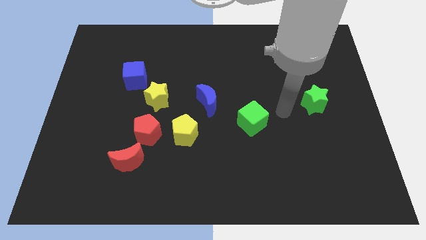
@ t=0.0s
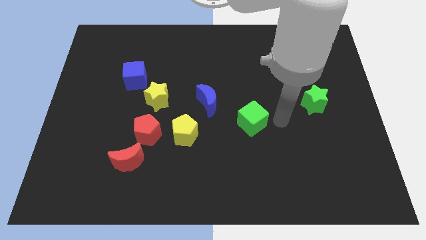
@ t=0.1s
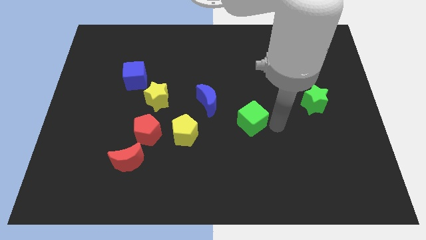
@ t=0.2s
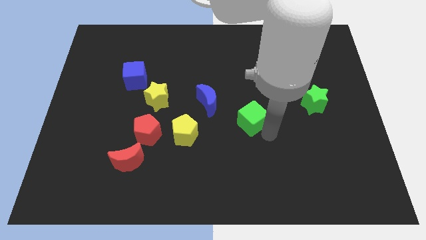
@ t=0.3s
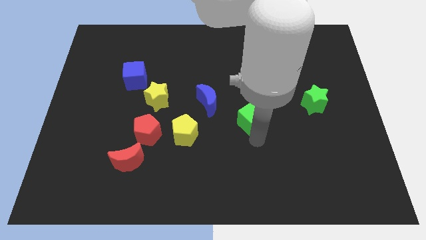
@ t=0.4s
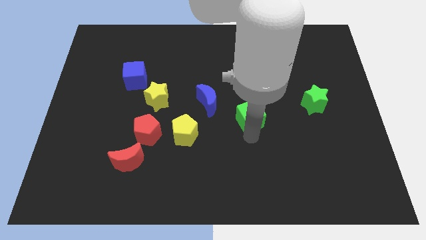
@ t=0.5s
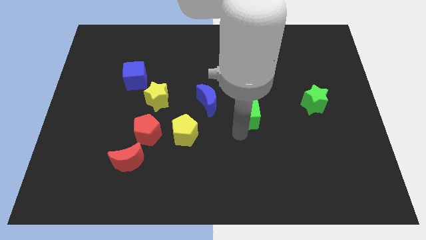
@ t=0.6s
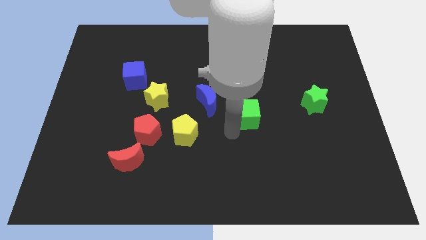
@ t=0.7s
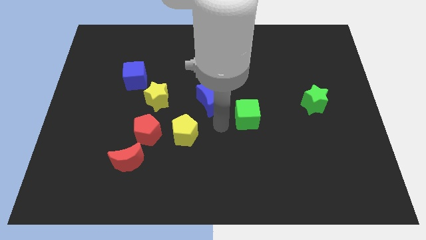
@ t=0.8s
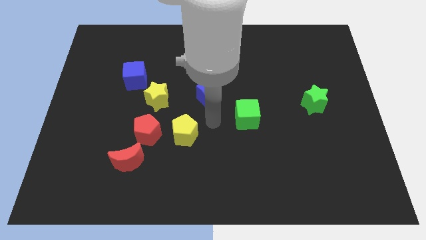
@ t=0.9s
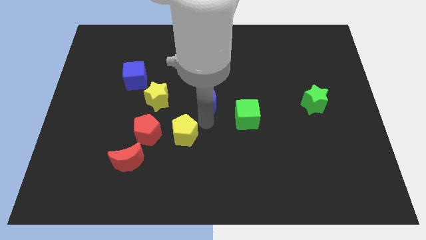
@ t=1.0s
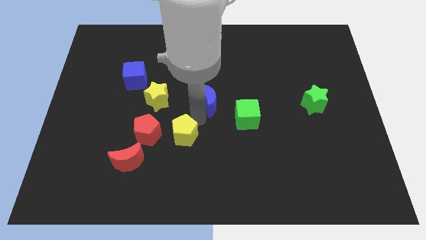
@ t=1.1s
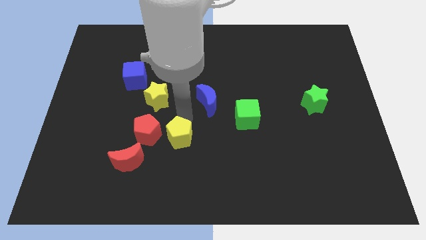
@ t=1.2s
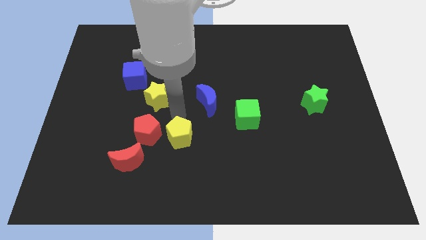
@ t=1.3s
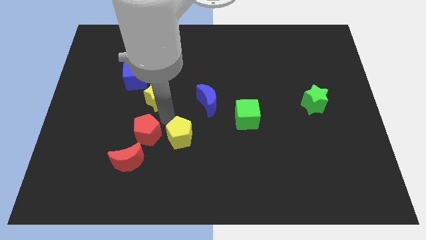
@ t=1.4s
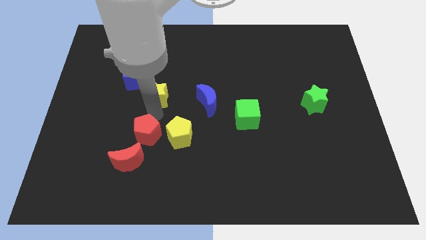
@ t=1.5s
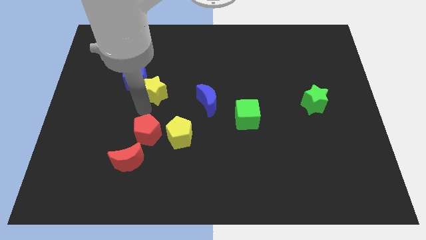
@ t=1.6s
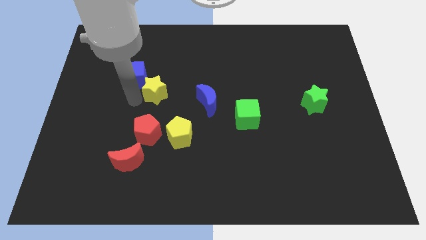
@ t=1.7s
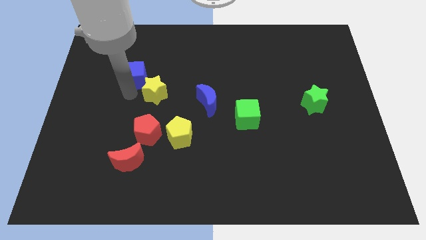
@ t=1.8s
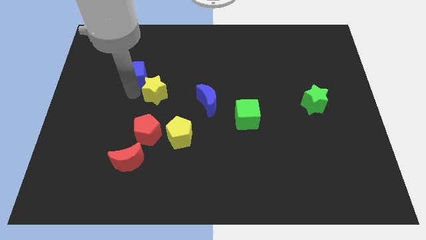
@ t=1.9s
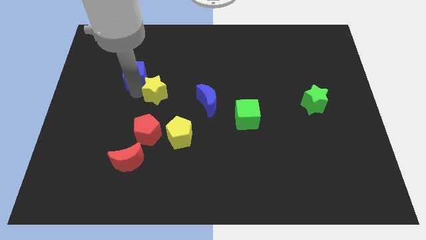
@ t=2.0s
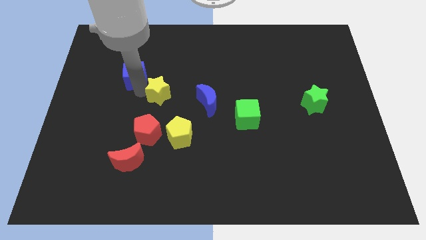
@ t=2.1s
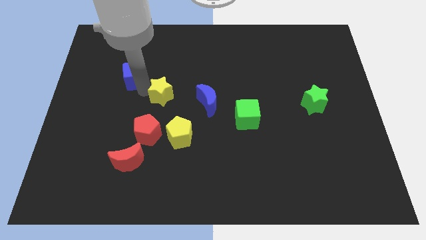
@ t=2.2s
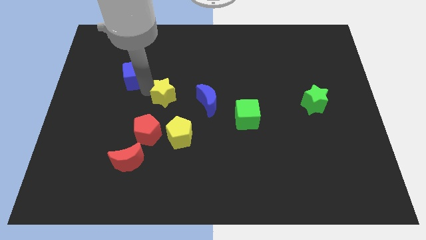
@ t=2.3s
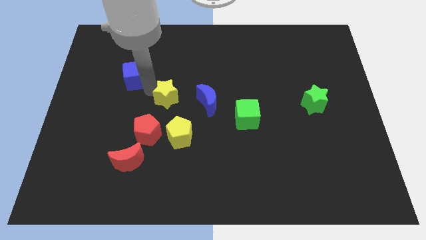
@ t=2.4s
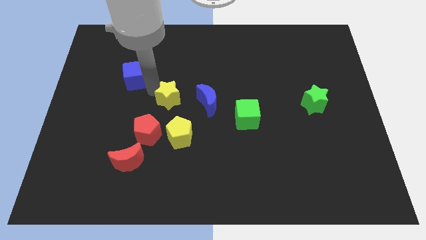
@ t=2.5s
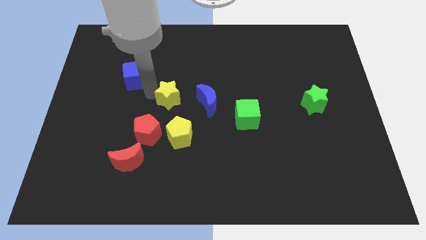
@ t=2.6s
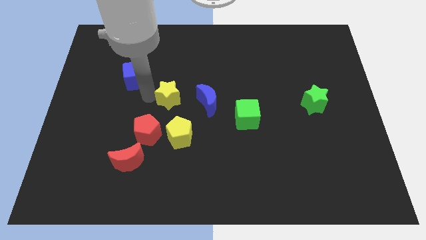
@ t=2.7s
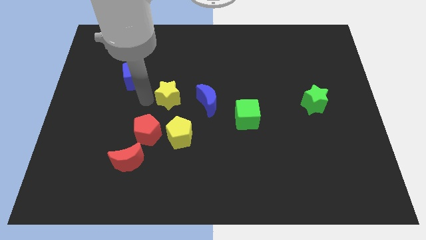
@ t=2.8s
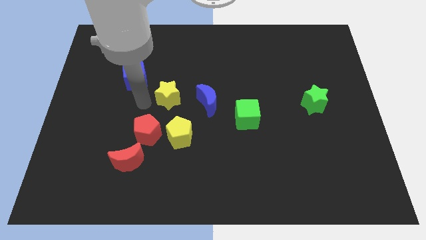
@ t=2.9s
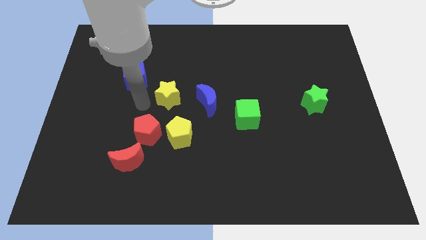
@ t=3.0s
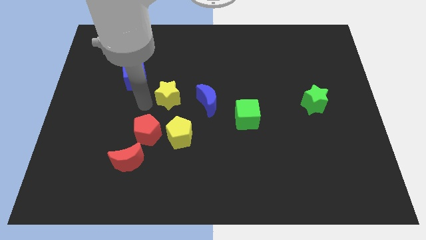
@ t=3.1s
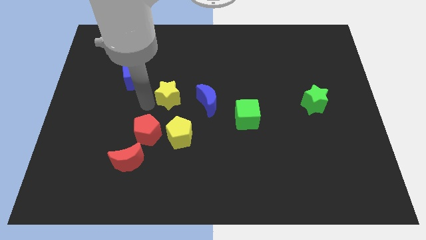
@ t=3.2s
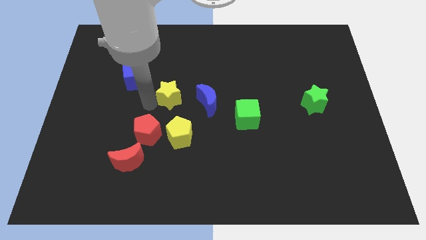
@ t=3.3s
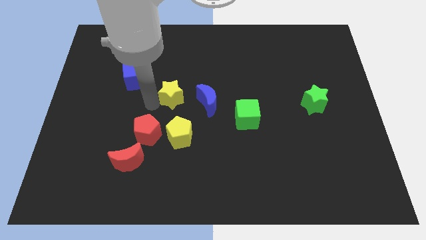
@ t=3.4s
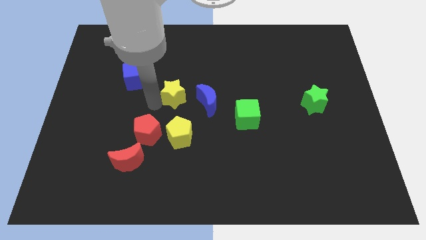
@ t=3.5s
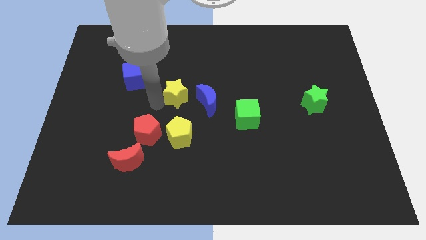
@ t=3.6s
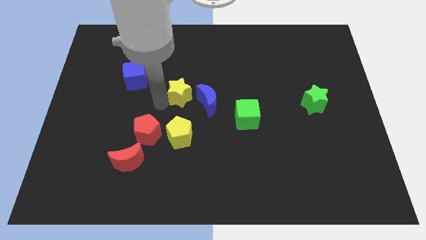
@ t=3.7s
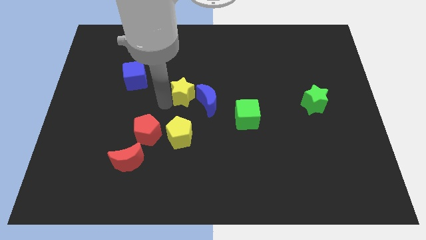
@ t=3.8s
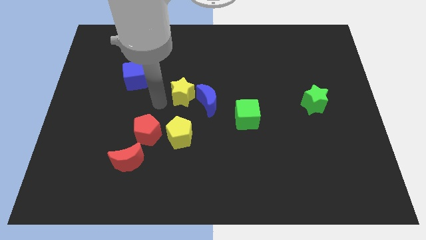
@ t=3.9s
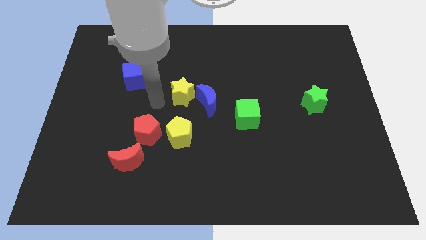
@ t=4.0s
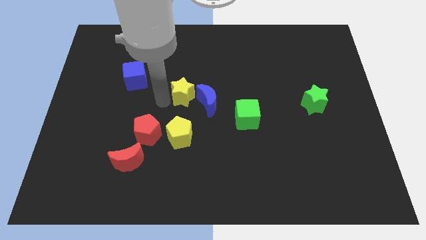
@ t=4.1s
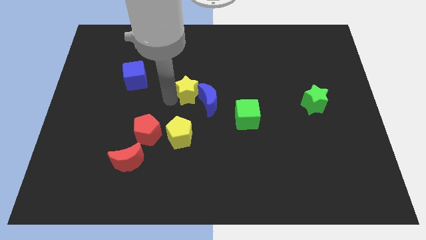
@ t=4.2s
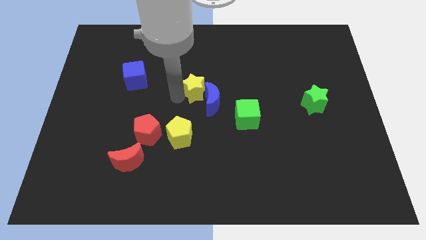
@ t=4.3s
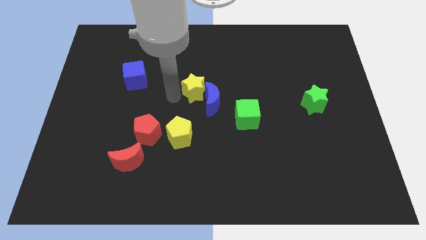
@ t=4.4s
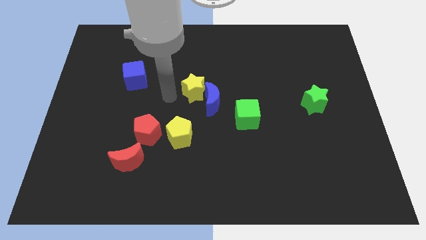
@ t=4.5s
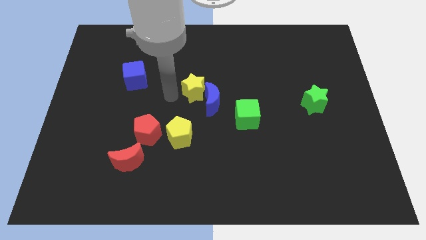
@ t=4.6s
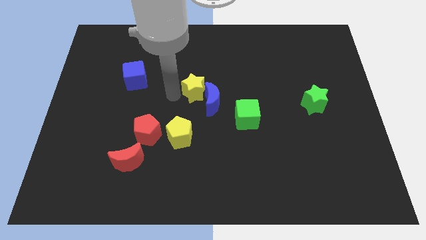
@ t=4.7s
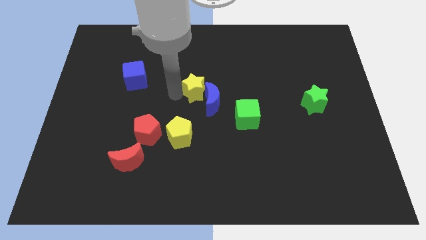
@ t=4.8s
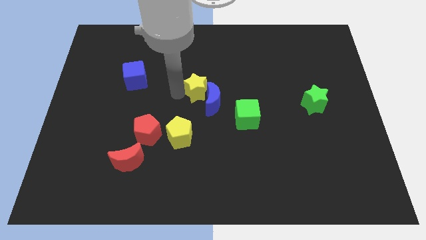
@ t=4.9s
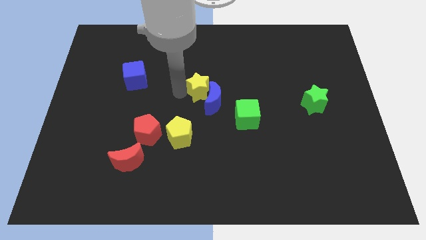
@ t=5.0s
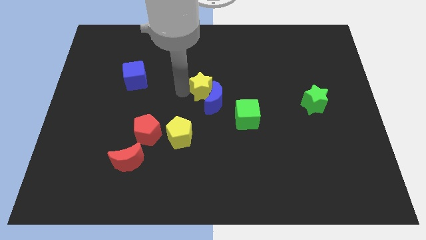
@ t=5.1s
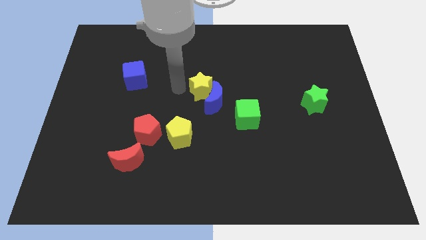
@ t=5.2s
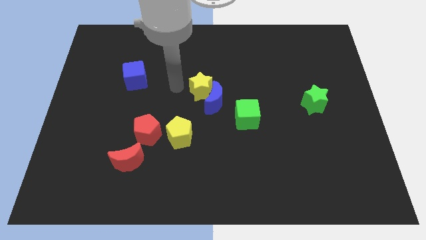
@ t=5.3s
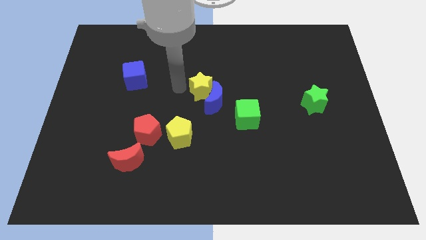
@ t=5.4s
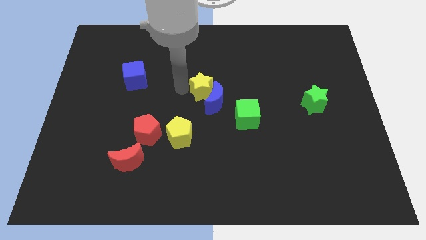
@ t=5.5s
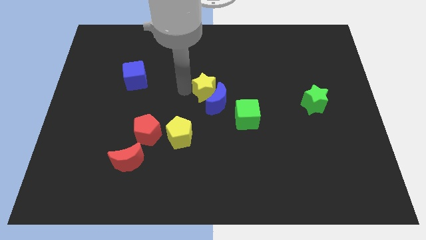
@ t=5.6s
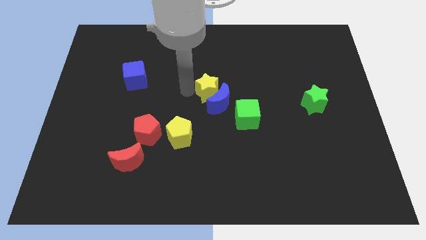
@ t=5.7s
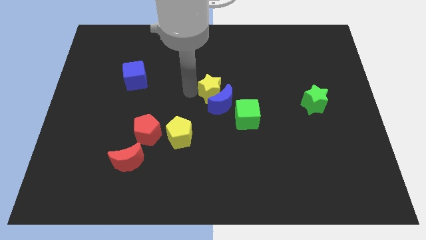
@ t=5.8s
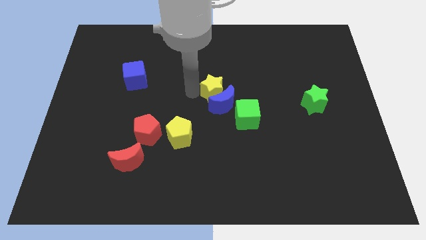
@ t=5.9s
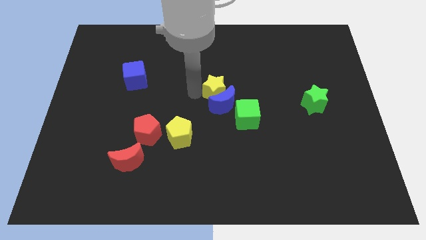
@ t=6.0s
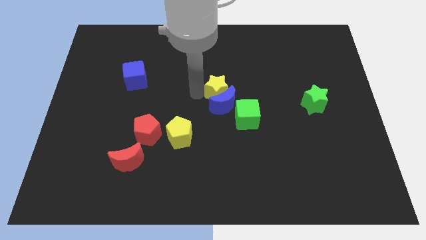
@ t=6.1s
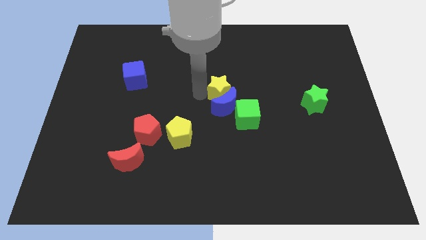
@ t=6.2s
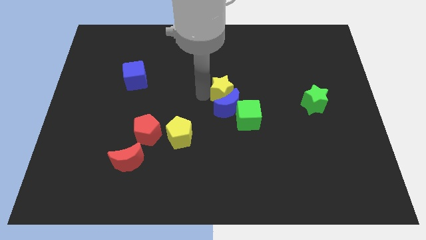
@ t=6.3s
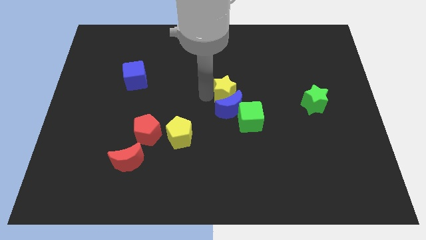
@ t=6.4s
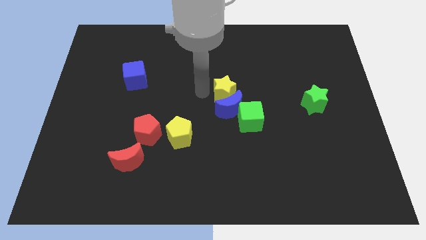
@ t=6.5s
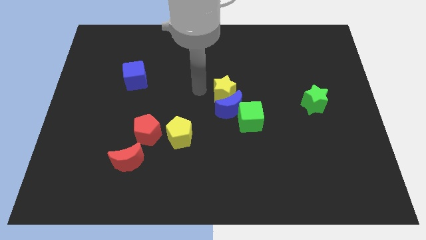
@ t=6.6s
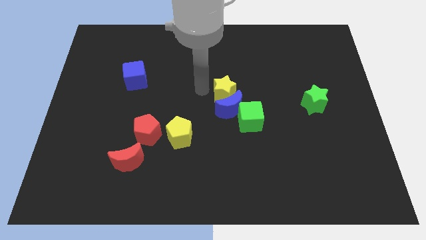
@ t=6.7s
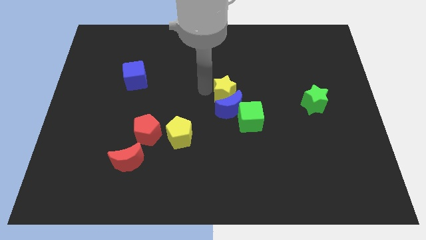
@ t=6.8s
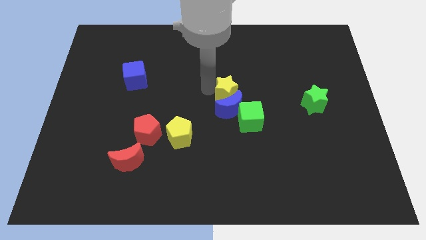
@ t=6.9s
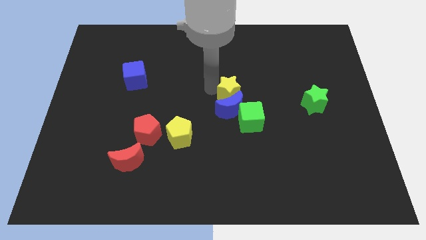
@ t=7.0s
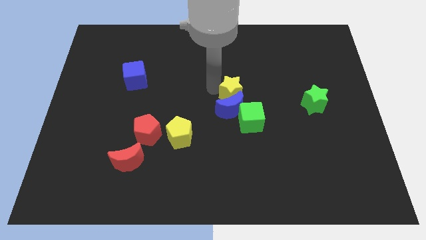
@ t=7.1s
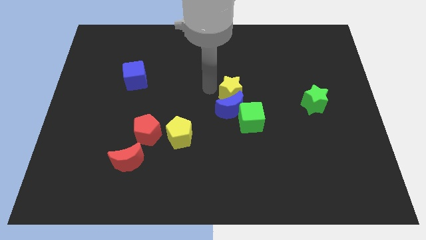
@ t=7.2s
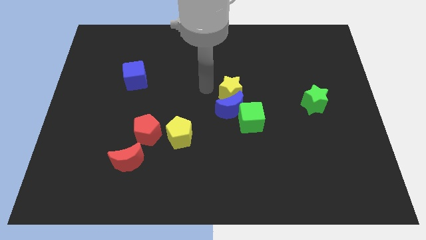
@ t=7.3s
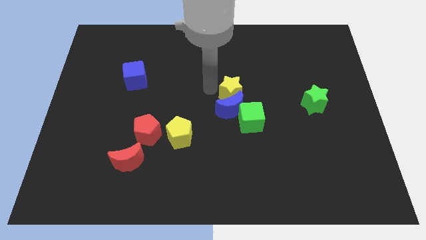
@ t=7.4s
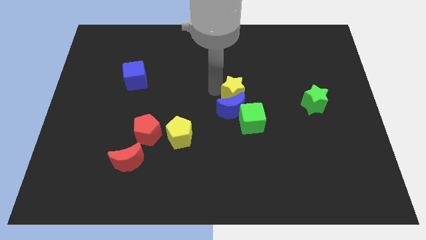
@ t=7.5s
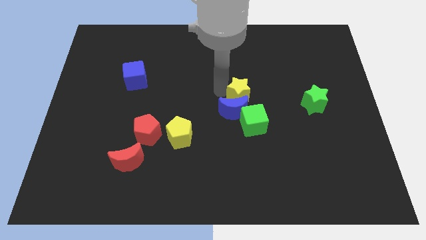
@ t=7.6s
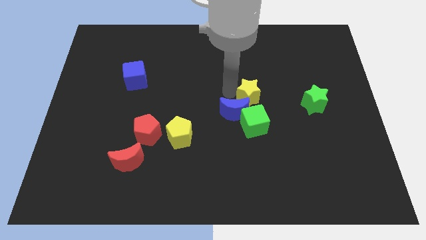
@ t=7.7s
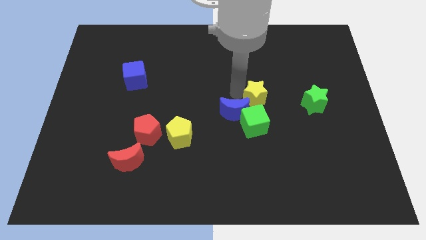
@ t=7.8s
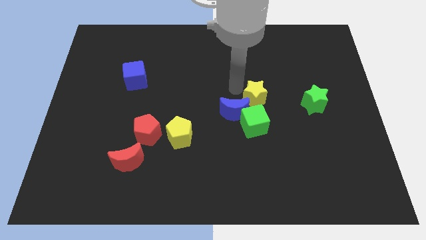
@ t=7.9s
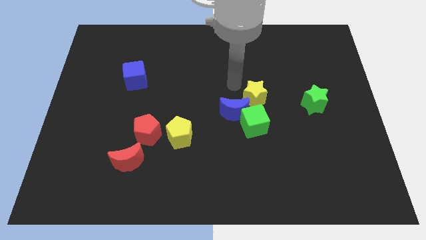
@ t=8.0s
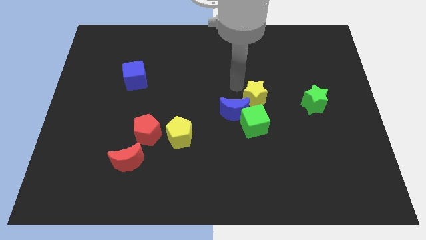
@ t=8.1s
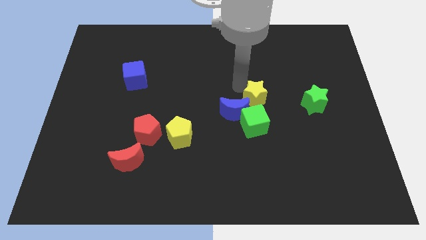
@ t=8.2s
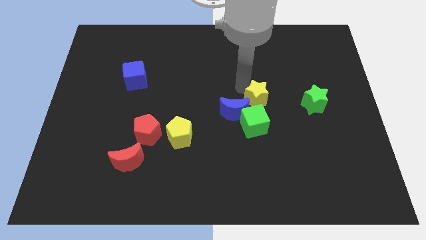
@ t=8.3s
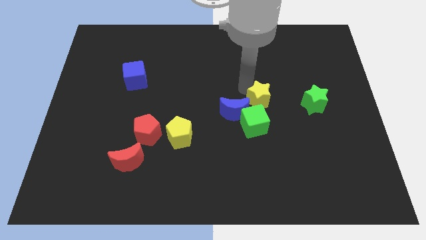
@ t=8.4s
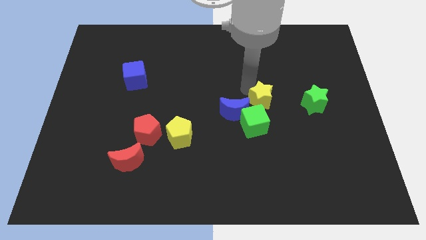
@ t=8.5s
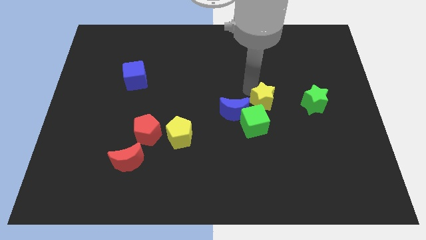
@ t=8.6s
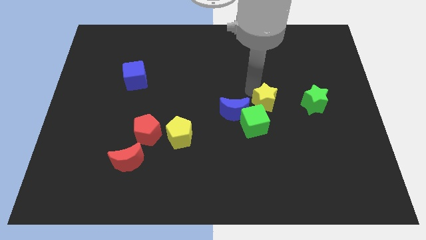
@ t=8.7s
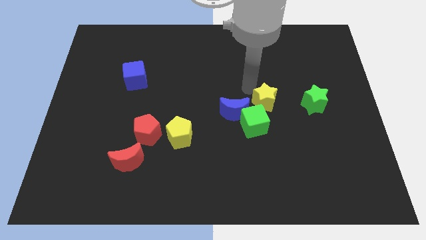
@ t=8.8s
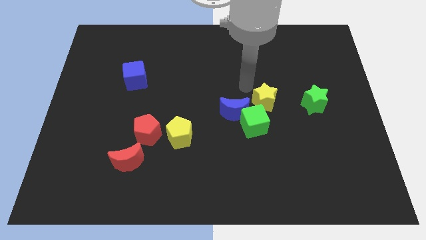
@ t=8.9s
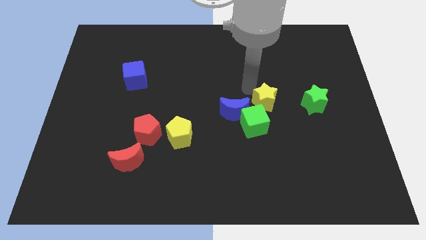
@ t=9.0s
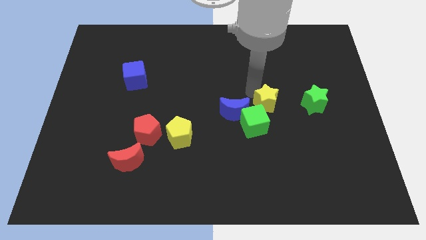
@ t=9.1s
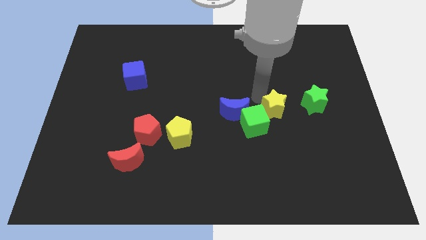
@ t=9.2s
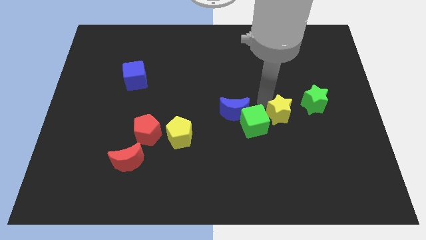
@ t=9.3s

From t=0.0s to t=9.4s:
push the yellow star to the bottom left of the green star
